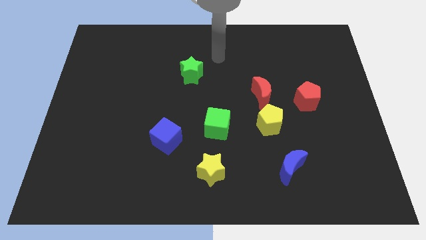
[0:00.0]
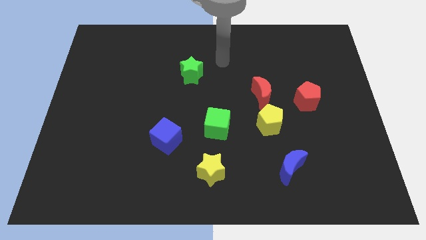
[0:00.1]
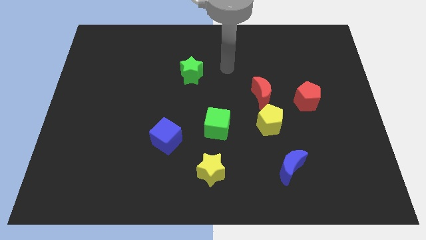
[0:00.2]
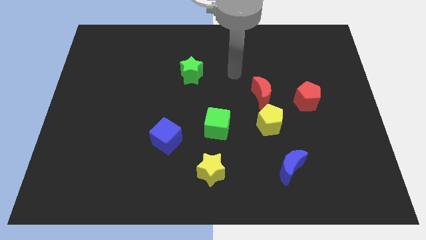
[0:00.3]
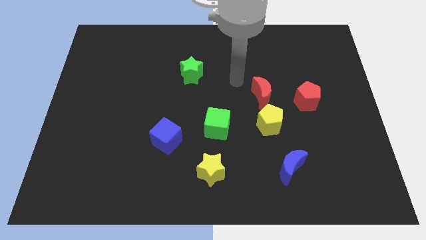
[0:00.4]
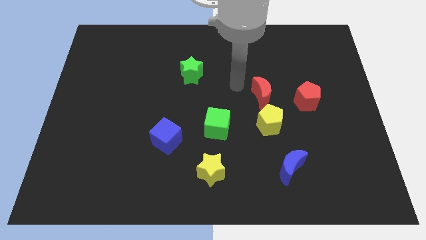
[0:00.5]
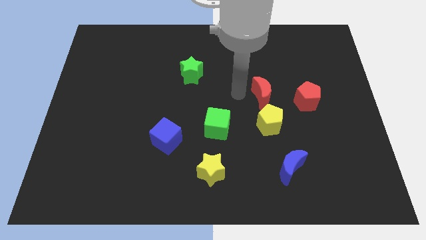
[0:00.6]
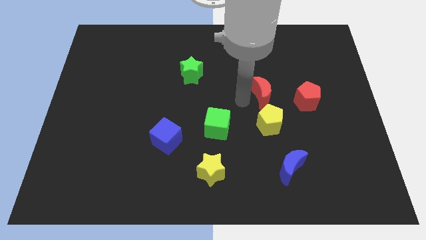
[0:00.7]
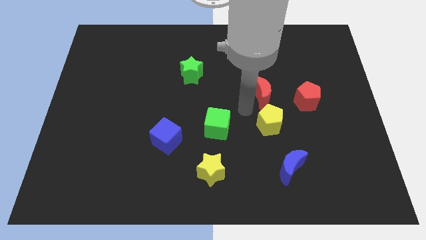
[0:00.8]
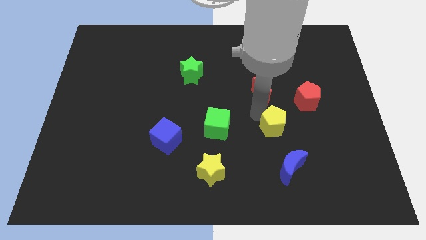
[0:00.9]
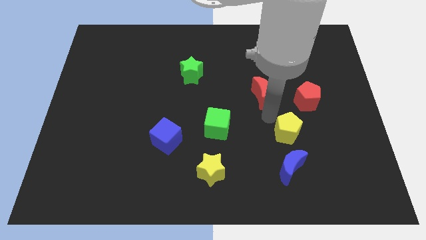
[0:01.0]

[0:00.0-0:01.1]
move the red moon away from the yellow pentagon

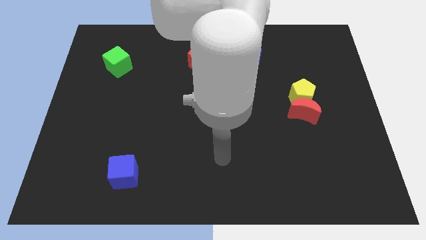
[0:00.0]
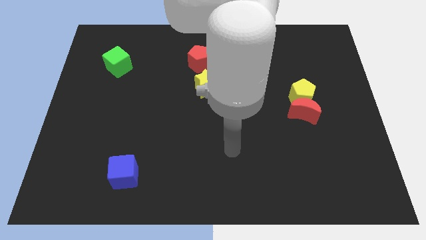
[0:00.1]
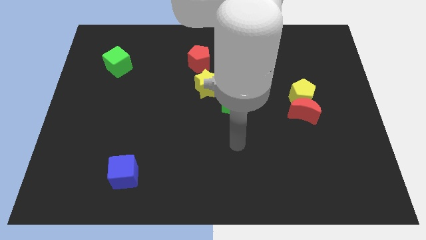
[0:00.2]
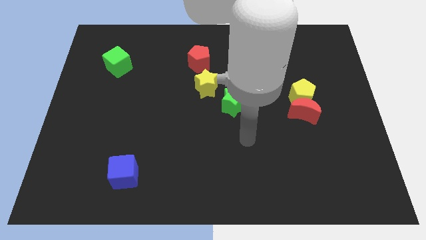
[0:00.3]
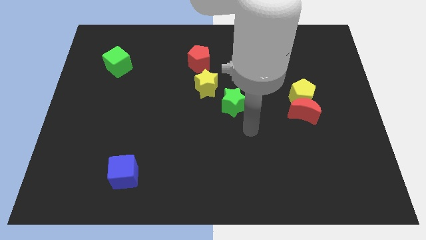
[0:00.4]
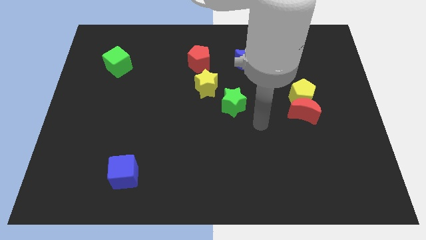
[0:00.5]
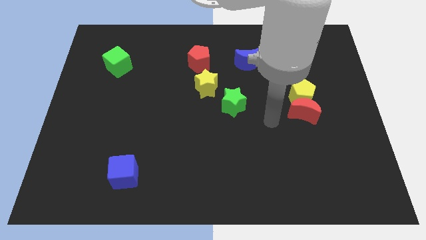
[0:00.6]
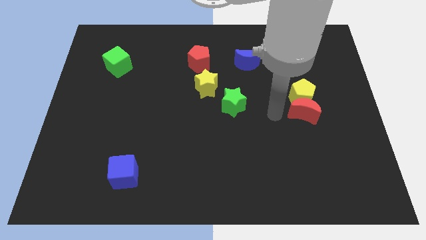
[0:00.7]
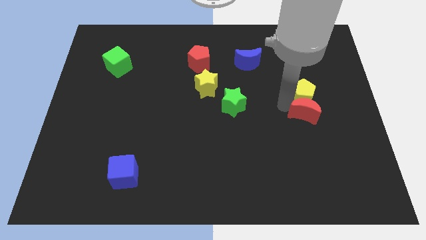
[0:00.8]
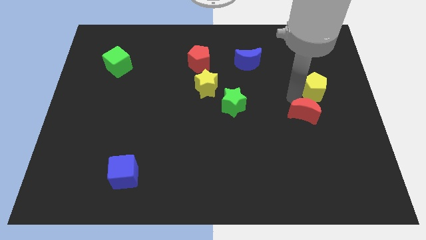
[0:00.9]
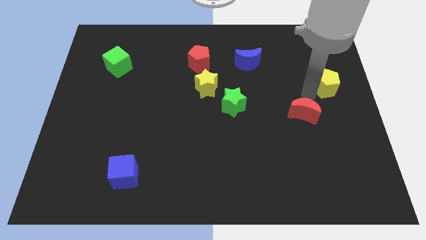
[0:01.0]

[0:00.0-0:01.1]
separate the red moon from the yellow pentagon

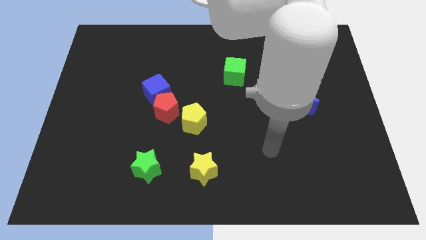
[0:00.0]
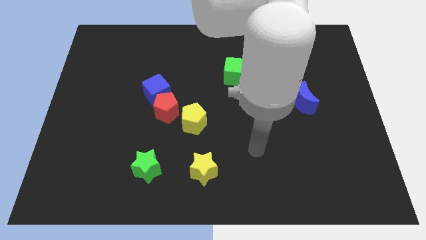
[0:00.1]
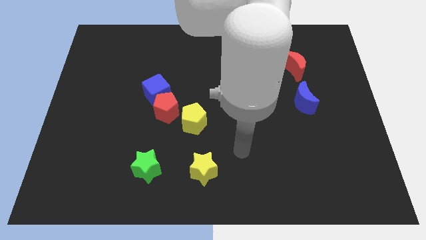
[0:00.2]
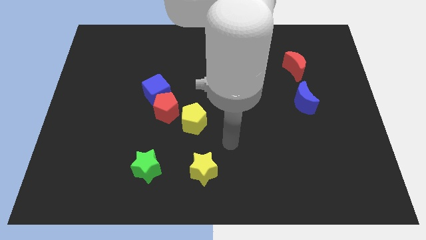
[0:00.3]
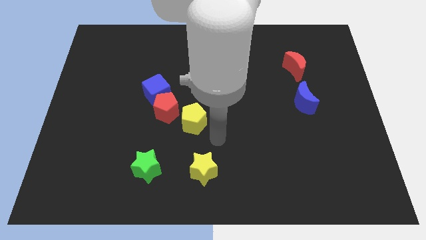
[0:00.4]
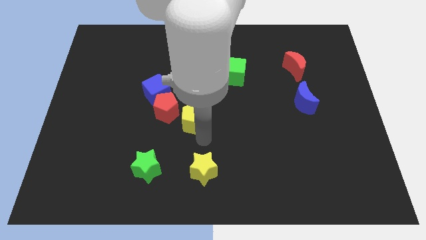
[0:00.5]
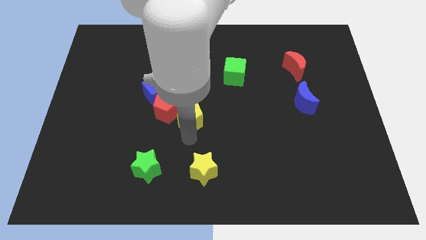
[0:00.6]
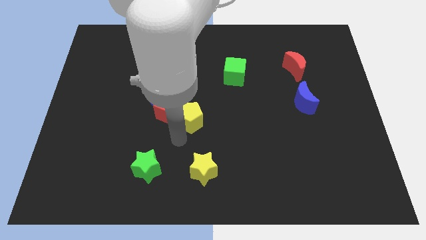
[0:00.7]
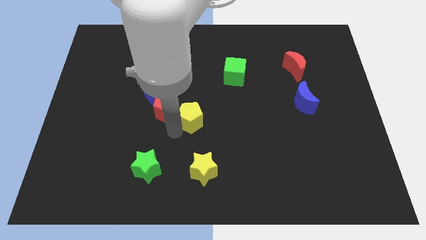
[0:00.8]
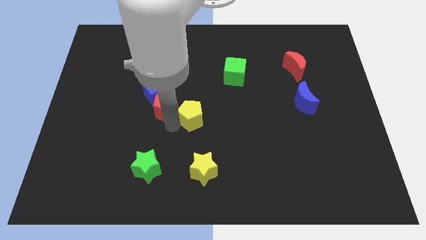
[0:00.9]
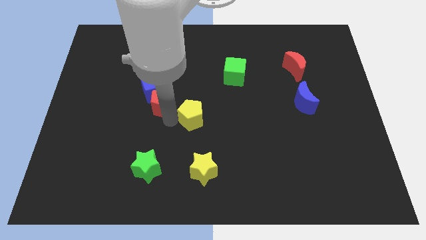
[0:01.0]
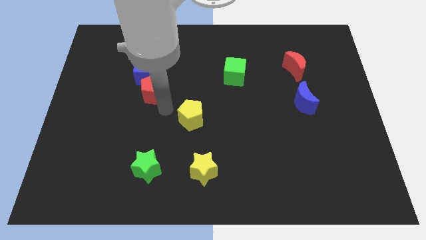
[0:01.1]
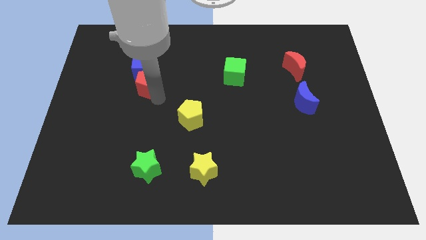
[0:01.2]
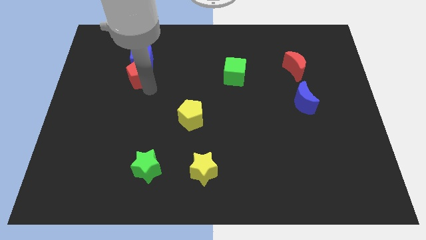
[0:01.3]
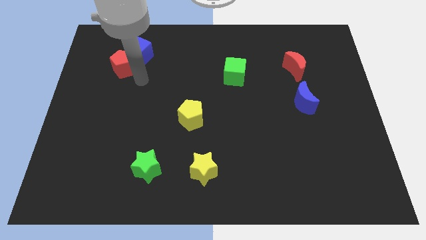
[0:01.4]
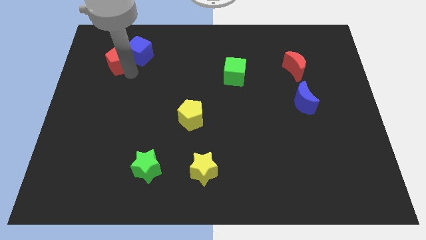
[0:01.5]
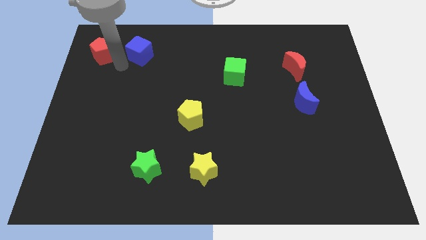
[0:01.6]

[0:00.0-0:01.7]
separate the blue cube from the red pentagon

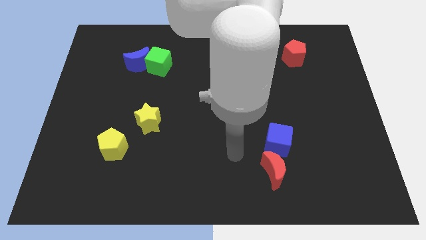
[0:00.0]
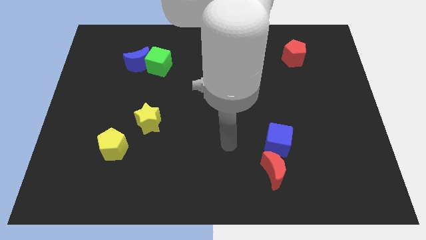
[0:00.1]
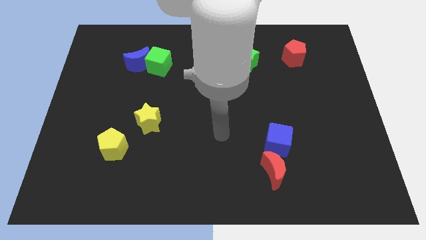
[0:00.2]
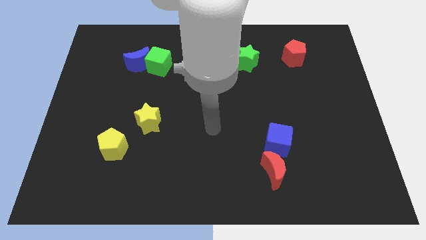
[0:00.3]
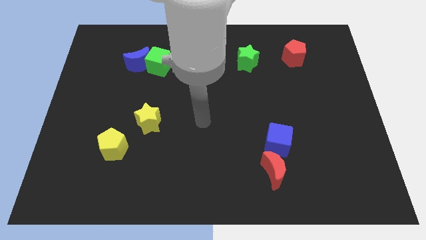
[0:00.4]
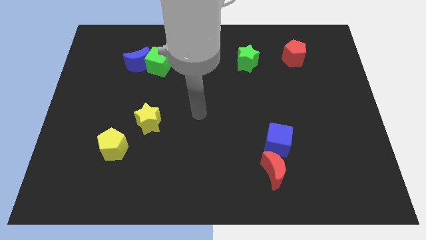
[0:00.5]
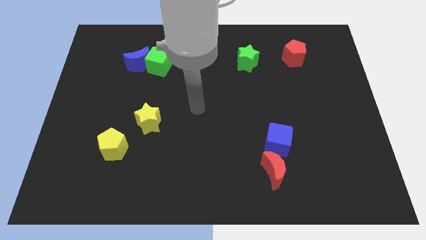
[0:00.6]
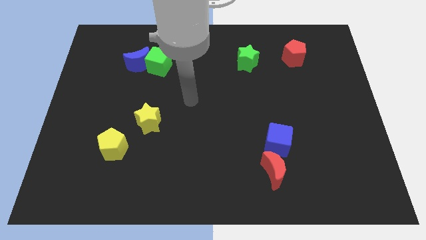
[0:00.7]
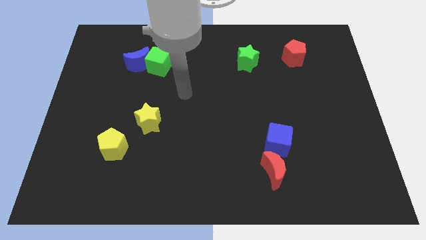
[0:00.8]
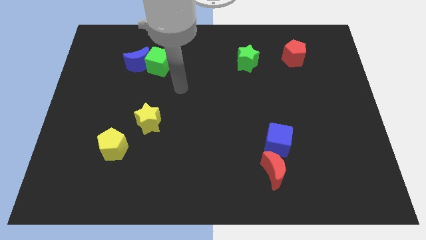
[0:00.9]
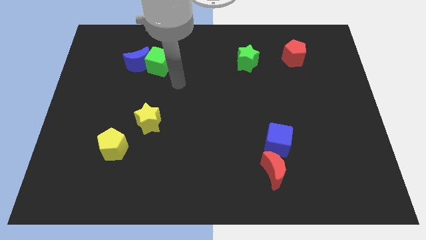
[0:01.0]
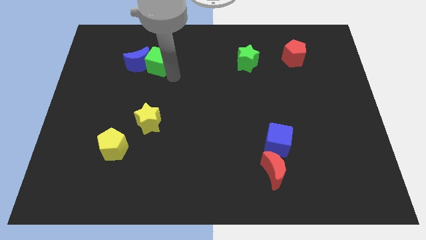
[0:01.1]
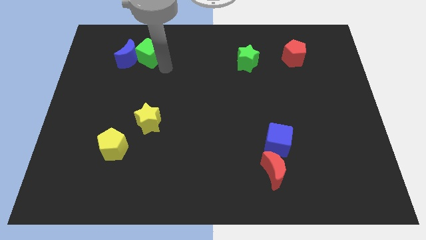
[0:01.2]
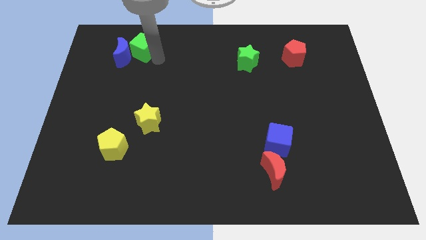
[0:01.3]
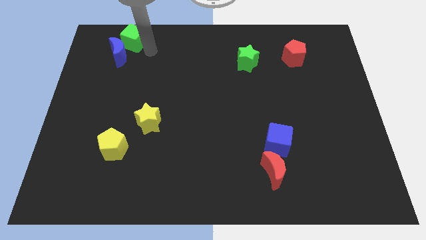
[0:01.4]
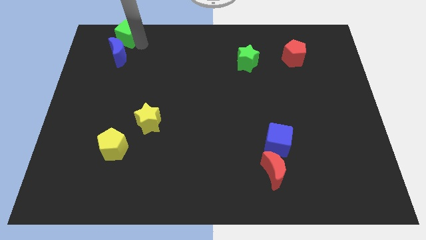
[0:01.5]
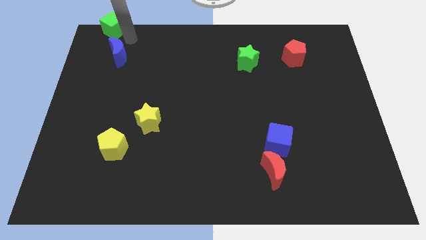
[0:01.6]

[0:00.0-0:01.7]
separate the blue moon from the green cube

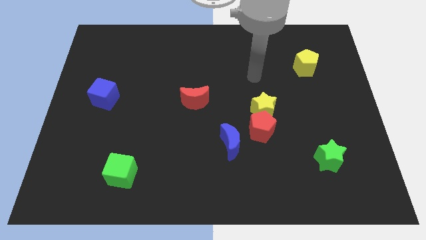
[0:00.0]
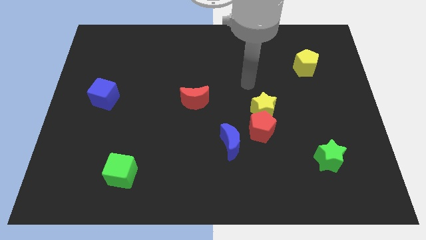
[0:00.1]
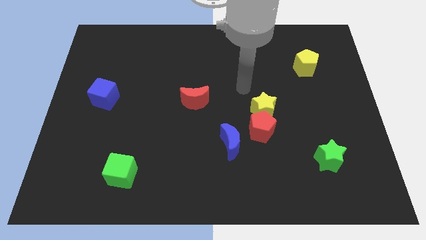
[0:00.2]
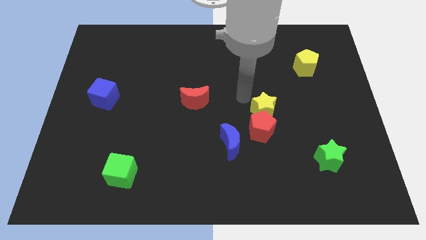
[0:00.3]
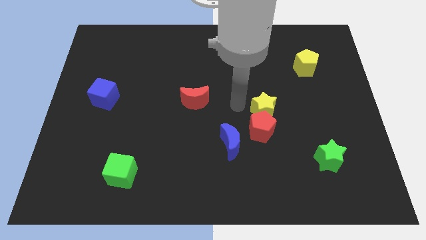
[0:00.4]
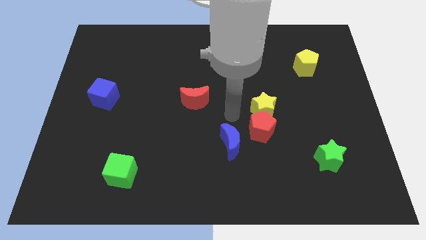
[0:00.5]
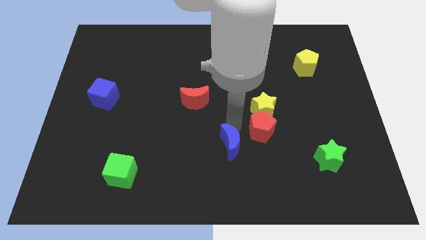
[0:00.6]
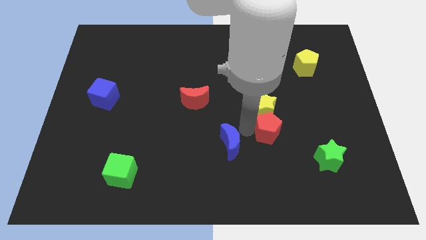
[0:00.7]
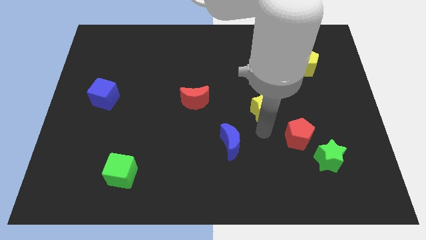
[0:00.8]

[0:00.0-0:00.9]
move the yellow star away from the red pentagon

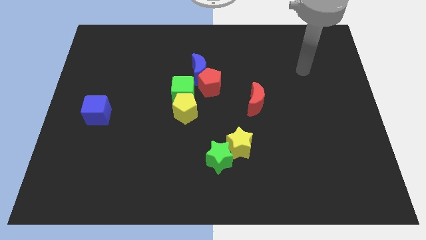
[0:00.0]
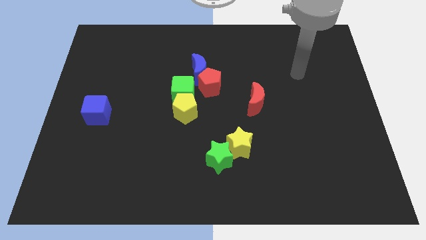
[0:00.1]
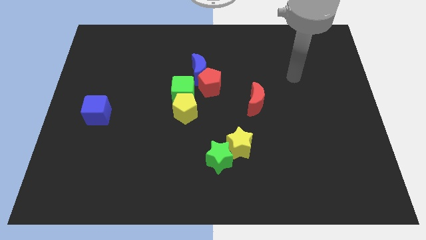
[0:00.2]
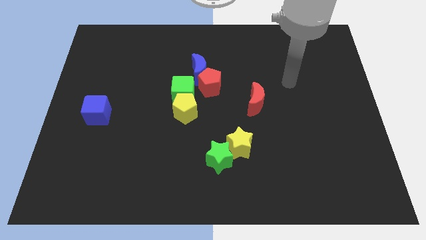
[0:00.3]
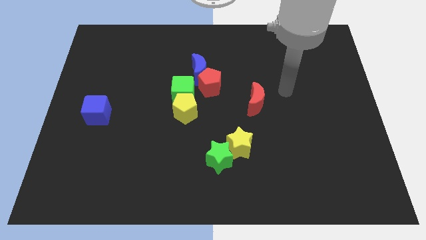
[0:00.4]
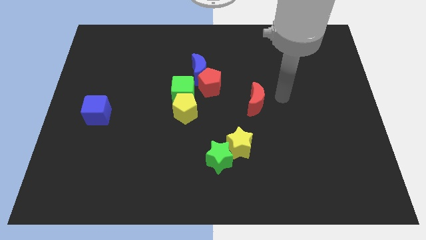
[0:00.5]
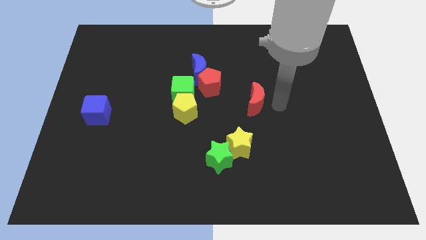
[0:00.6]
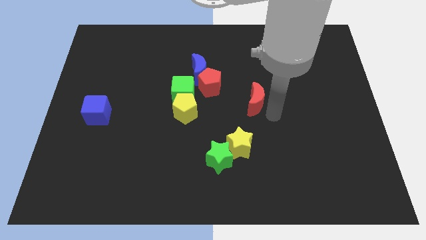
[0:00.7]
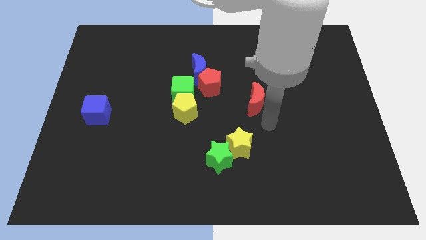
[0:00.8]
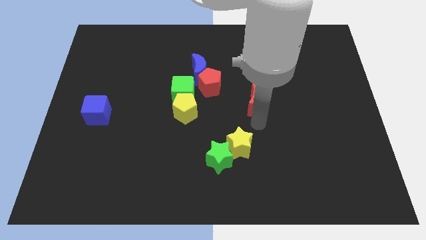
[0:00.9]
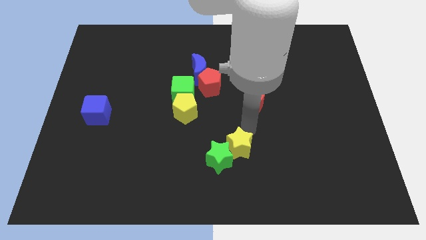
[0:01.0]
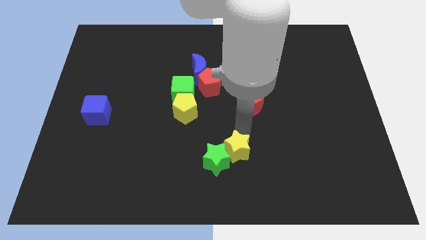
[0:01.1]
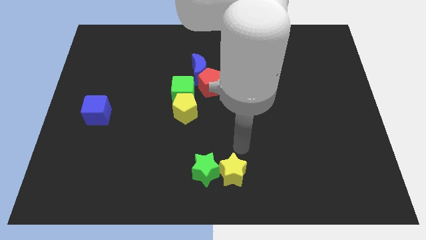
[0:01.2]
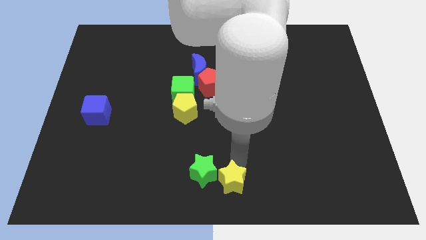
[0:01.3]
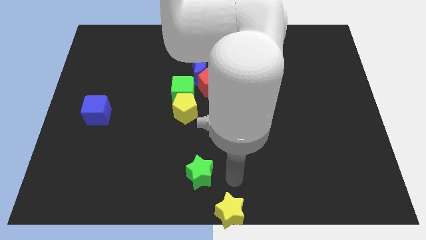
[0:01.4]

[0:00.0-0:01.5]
separate the green star from the yellow star

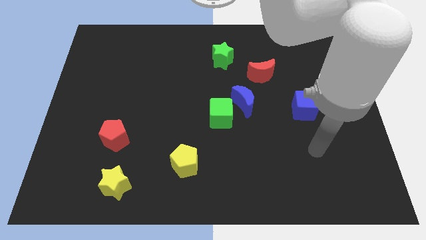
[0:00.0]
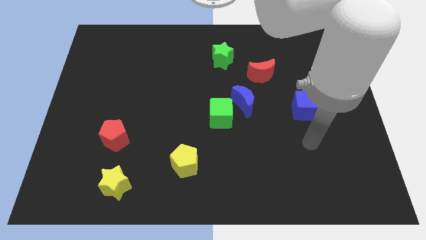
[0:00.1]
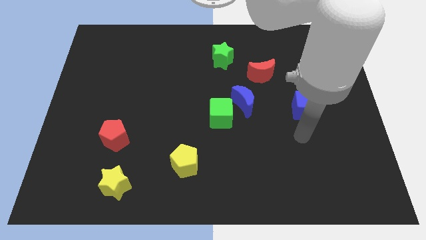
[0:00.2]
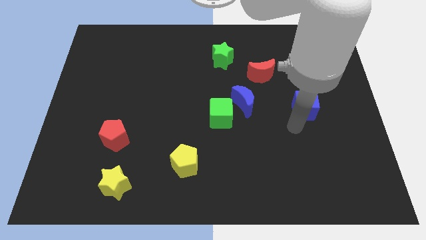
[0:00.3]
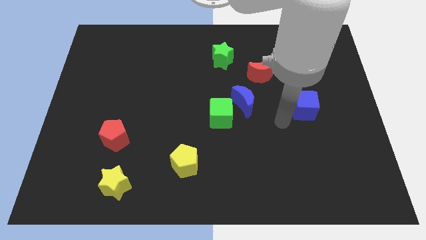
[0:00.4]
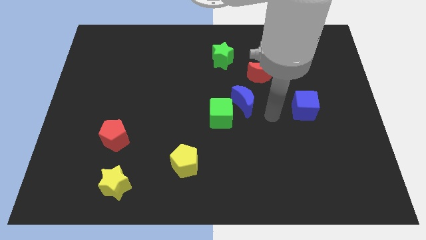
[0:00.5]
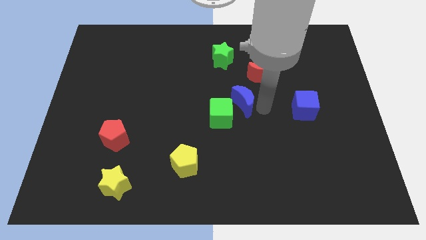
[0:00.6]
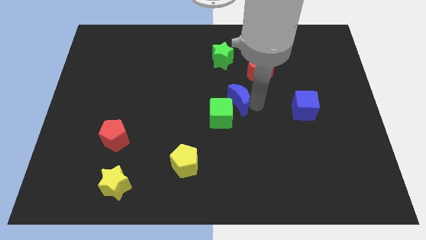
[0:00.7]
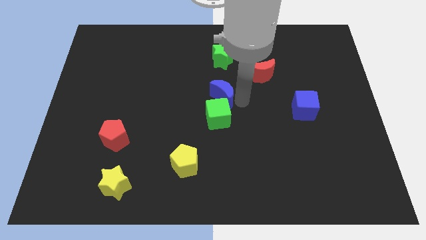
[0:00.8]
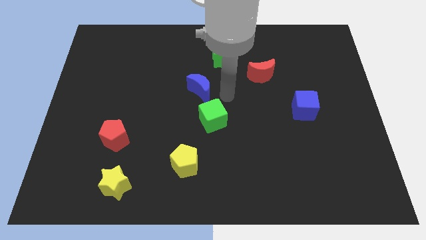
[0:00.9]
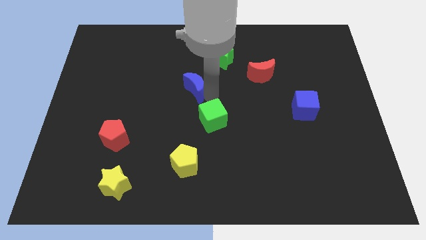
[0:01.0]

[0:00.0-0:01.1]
move the green cube away from the blue moon

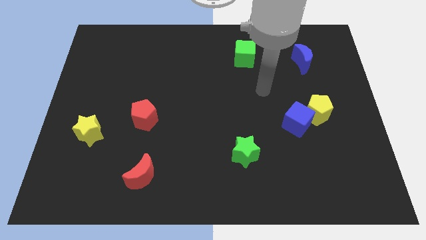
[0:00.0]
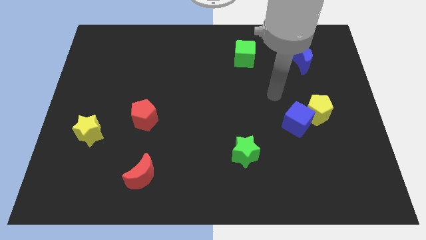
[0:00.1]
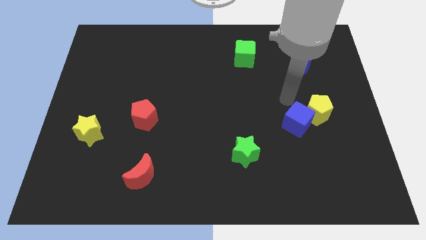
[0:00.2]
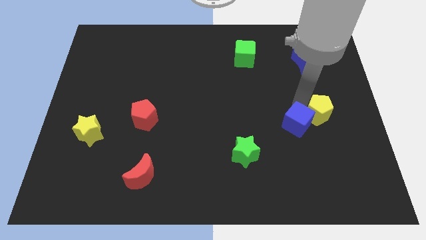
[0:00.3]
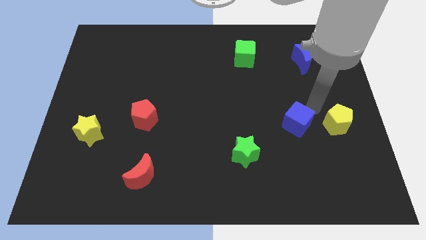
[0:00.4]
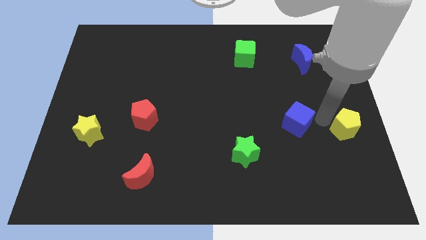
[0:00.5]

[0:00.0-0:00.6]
move the blue cube away from the yellow pentagon
